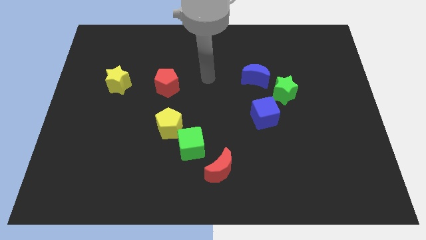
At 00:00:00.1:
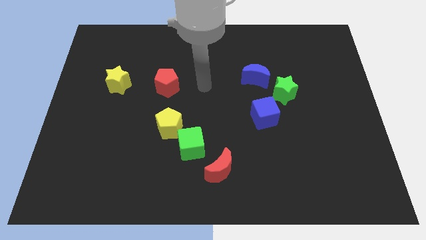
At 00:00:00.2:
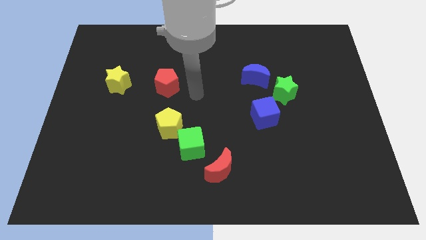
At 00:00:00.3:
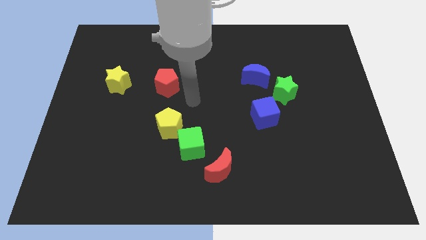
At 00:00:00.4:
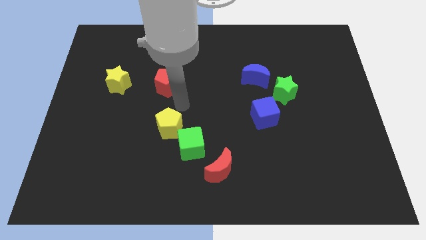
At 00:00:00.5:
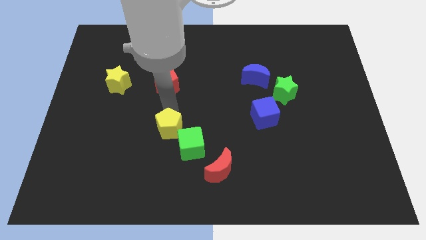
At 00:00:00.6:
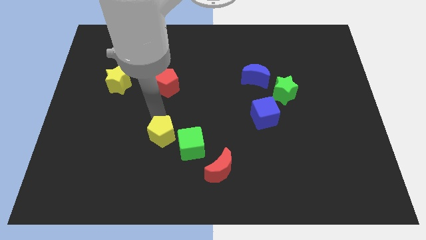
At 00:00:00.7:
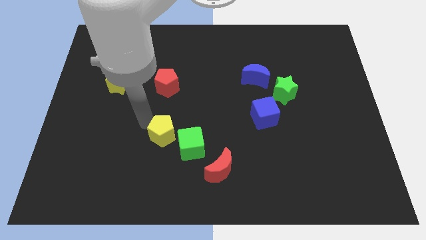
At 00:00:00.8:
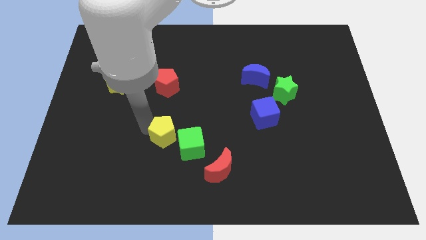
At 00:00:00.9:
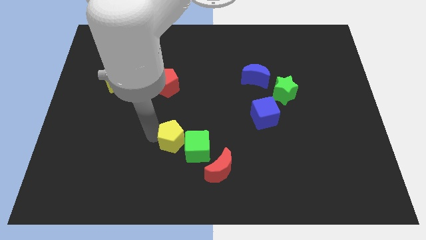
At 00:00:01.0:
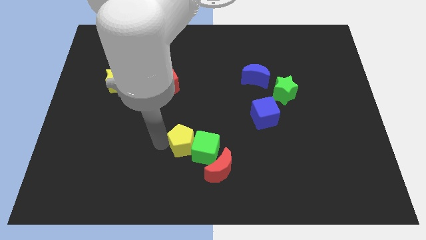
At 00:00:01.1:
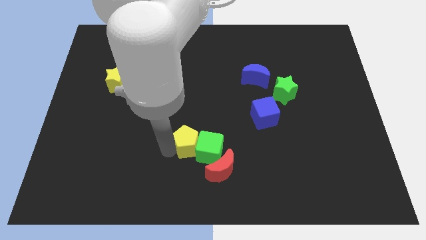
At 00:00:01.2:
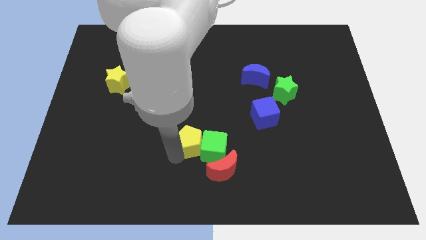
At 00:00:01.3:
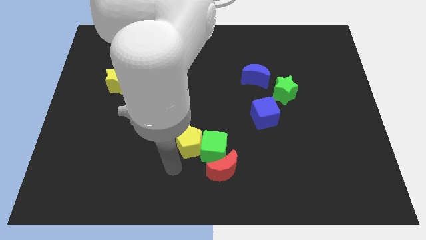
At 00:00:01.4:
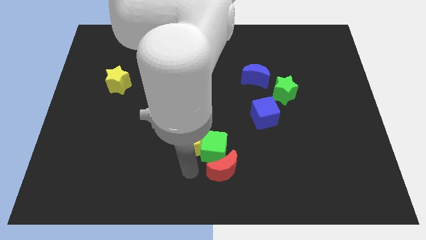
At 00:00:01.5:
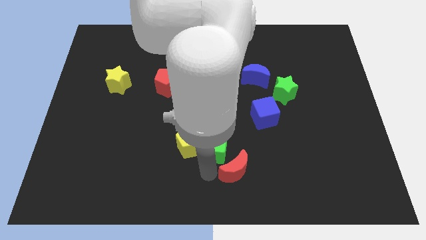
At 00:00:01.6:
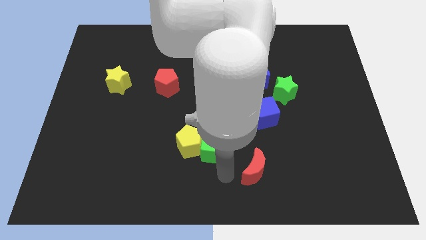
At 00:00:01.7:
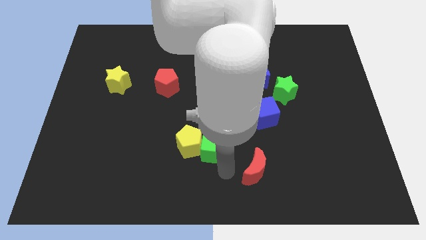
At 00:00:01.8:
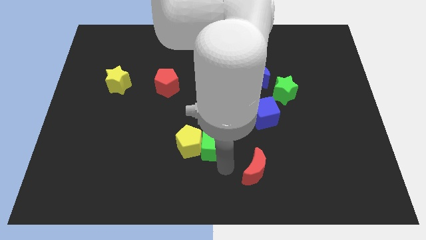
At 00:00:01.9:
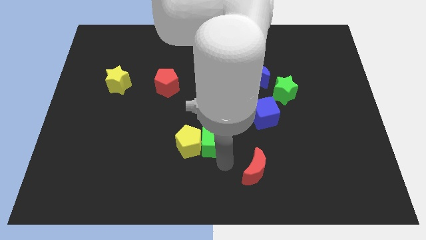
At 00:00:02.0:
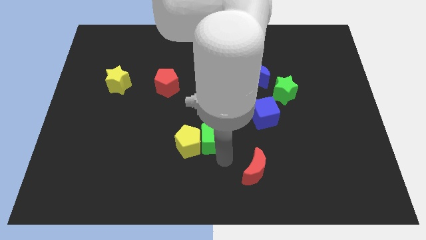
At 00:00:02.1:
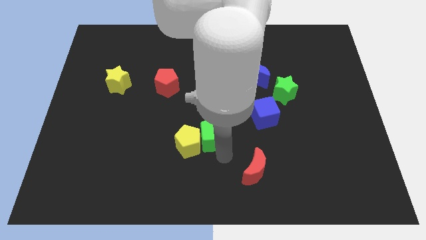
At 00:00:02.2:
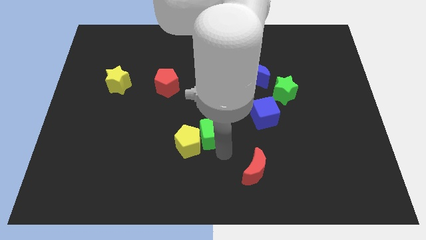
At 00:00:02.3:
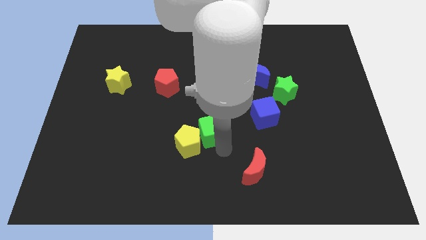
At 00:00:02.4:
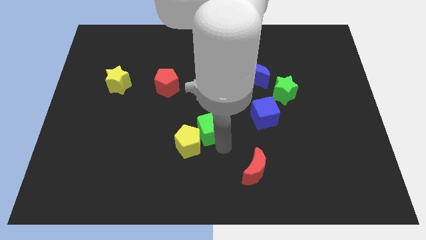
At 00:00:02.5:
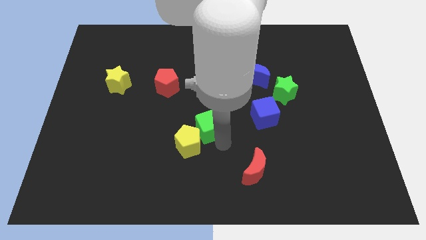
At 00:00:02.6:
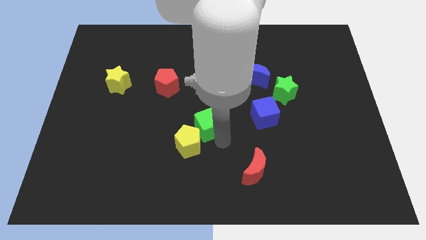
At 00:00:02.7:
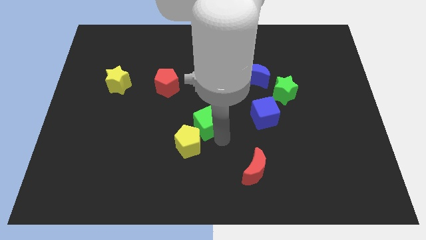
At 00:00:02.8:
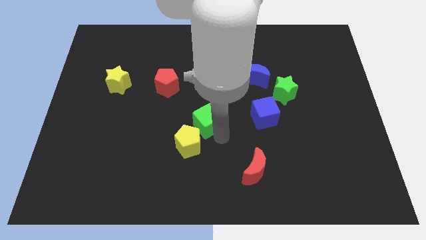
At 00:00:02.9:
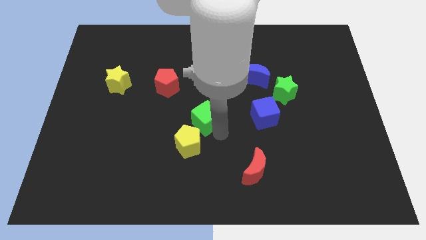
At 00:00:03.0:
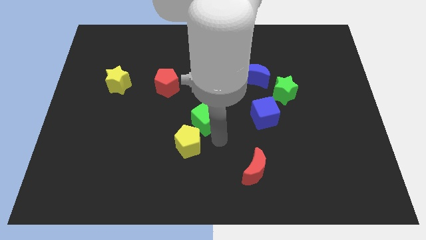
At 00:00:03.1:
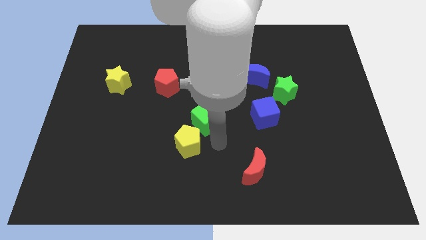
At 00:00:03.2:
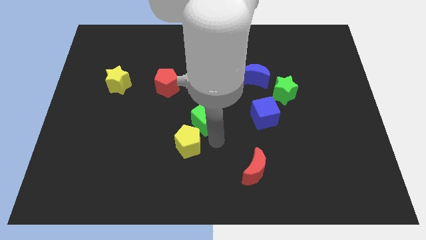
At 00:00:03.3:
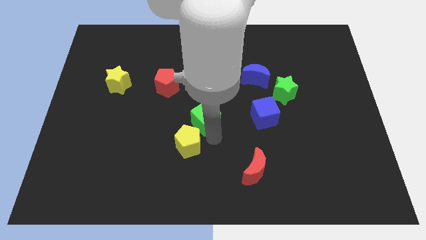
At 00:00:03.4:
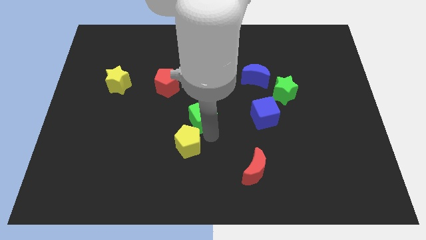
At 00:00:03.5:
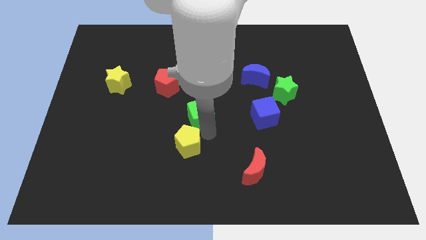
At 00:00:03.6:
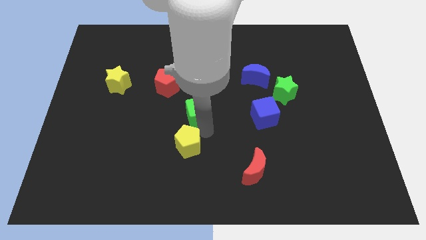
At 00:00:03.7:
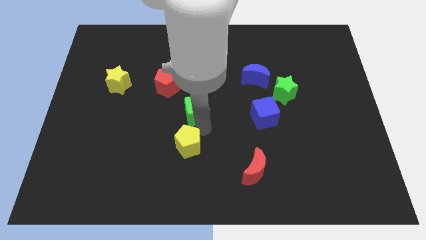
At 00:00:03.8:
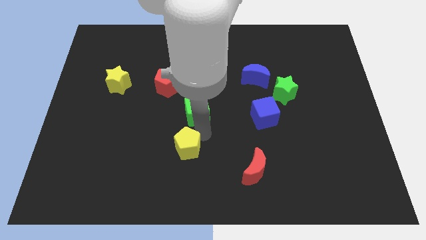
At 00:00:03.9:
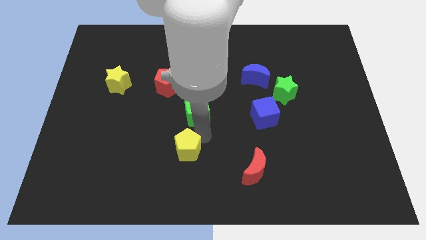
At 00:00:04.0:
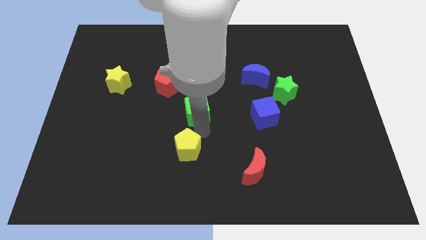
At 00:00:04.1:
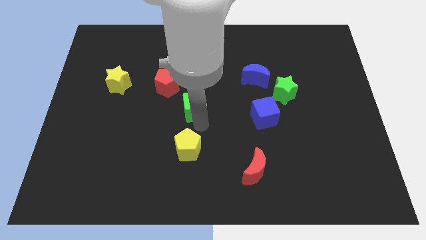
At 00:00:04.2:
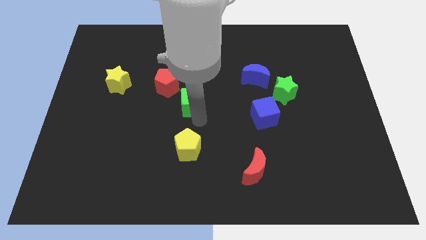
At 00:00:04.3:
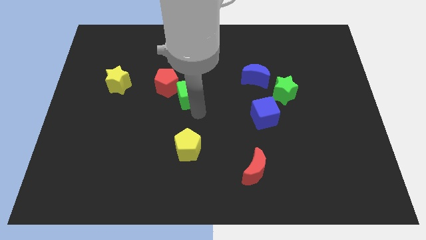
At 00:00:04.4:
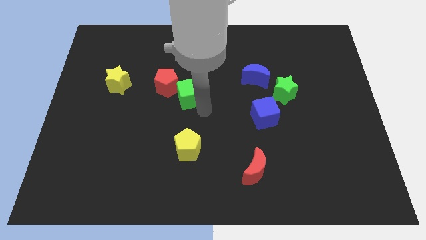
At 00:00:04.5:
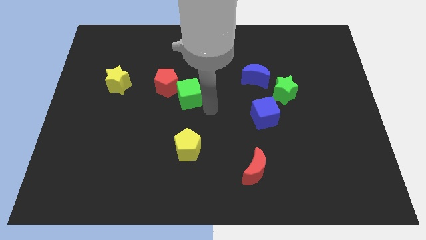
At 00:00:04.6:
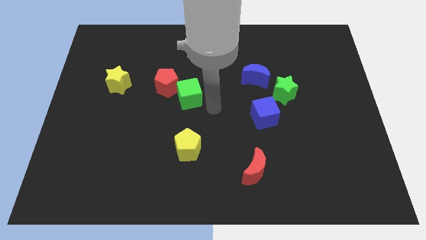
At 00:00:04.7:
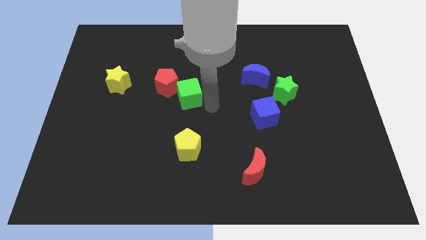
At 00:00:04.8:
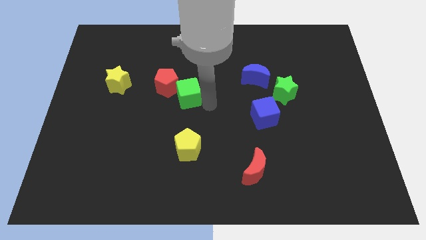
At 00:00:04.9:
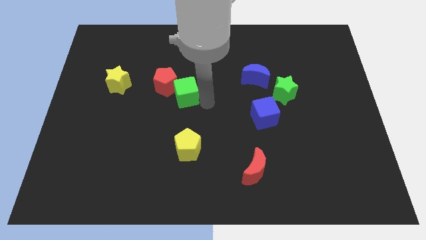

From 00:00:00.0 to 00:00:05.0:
move the green cube next to the red pentagon

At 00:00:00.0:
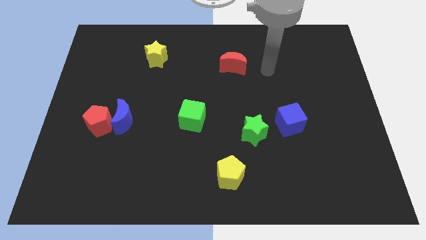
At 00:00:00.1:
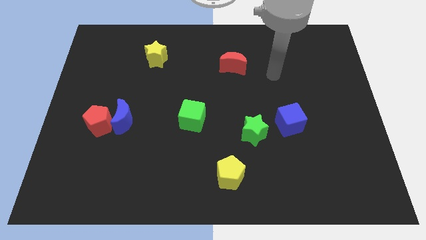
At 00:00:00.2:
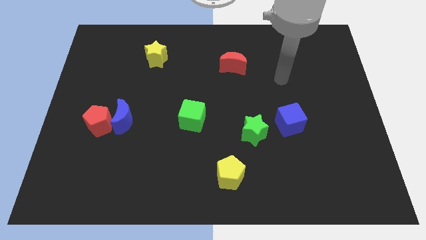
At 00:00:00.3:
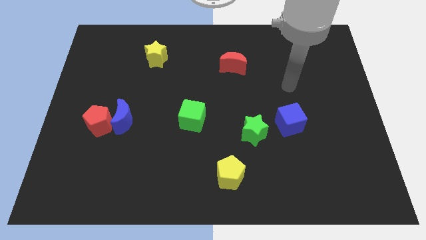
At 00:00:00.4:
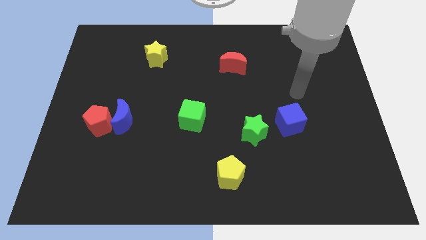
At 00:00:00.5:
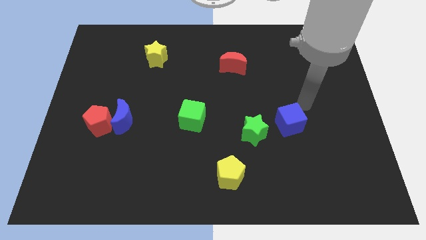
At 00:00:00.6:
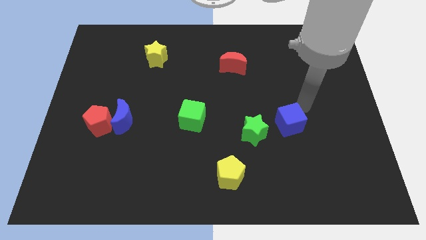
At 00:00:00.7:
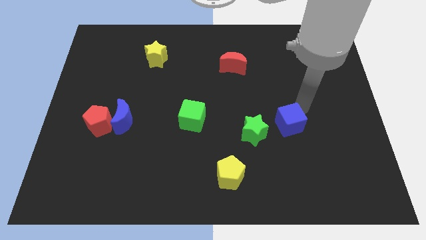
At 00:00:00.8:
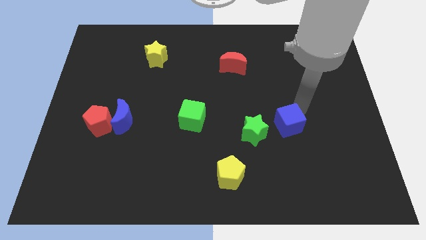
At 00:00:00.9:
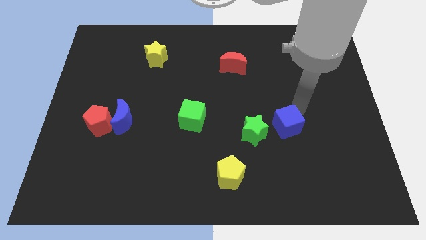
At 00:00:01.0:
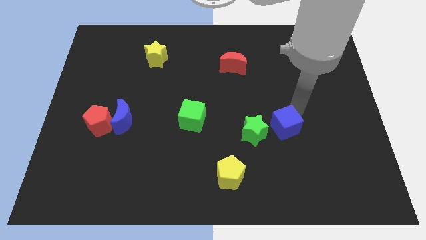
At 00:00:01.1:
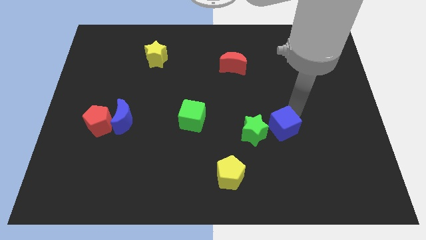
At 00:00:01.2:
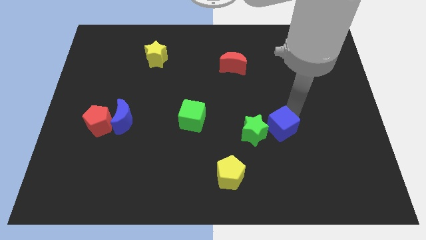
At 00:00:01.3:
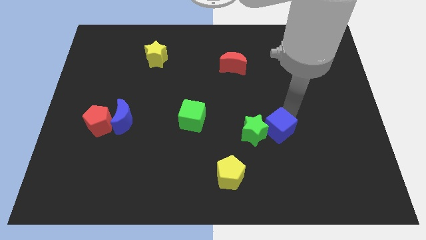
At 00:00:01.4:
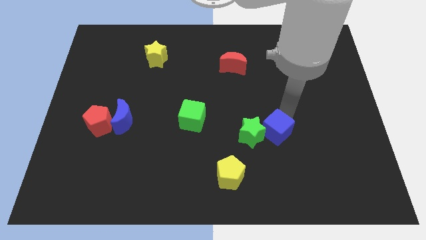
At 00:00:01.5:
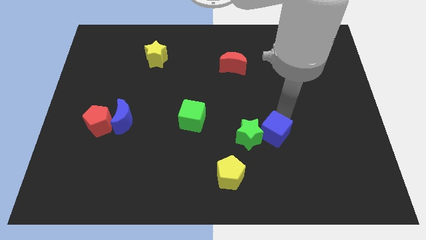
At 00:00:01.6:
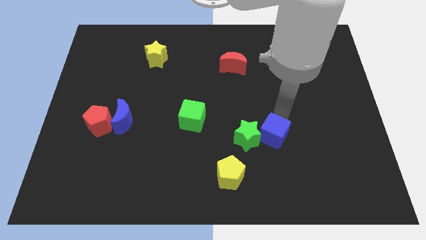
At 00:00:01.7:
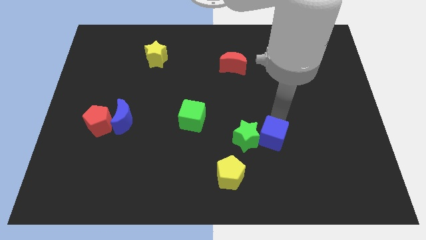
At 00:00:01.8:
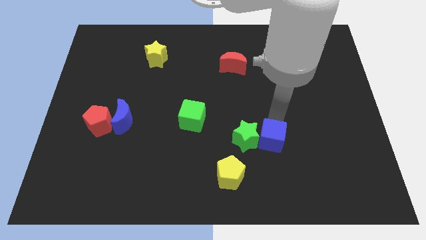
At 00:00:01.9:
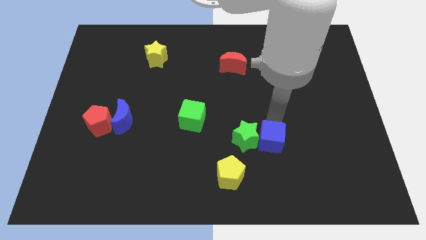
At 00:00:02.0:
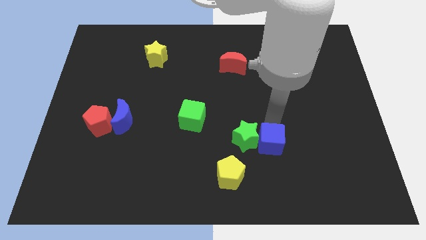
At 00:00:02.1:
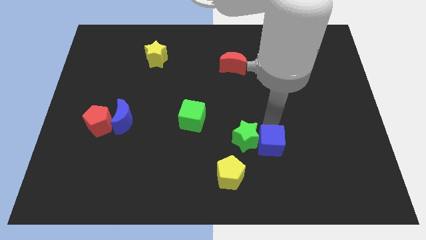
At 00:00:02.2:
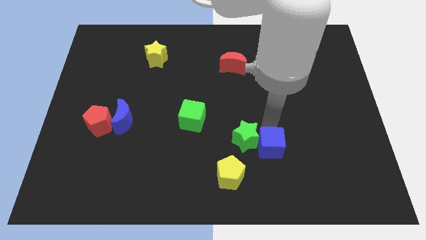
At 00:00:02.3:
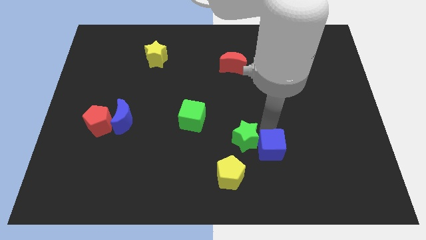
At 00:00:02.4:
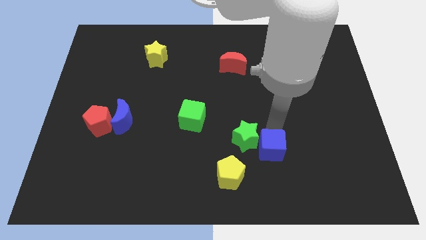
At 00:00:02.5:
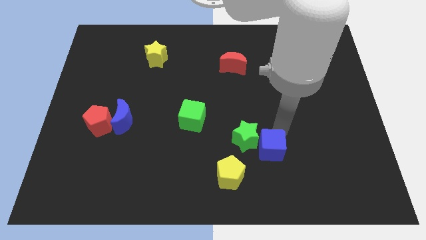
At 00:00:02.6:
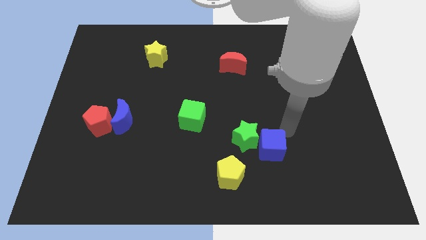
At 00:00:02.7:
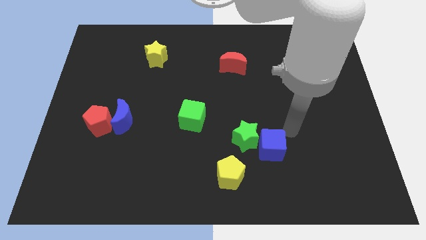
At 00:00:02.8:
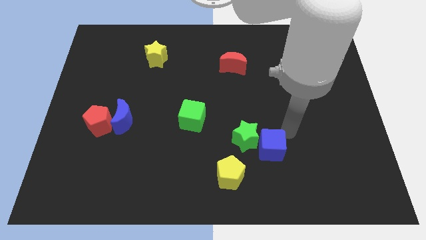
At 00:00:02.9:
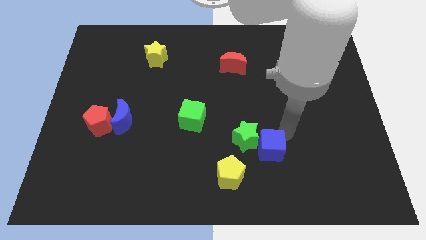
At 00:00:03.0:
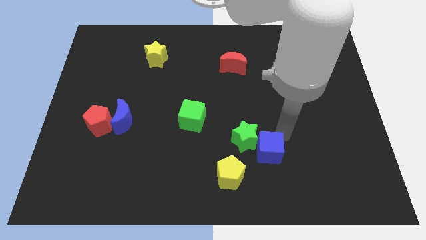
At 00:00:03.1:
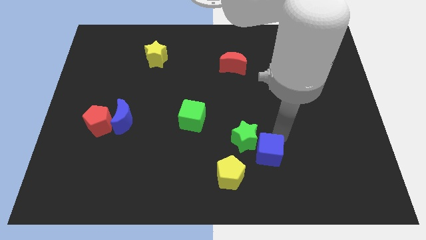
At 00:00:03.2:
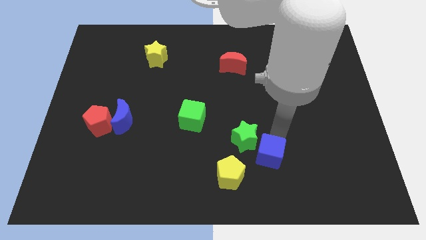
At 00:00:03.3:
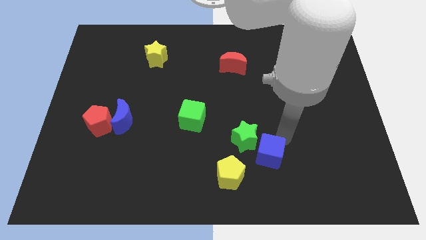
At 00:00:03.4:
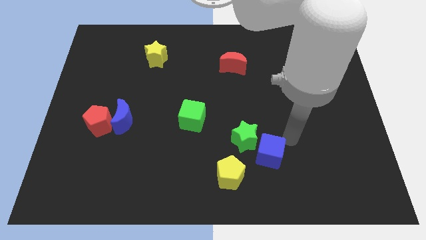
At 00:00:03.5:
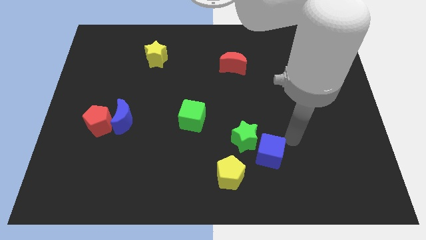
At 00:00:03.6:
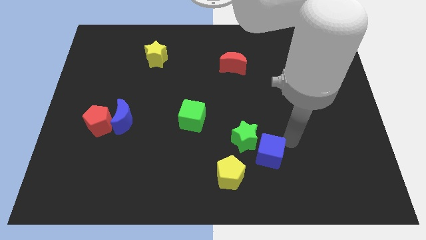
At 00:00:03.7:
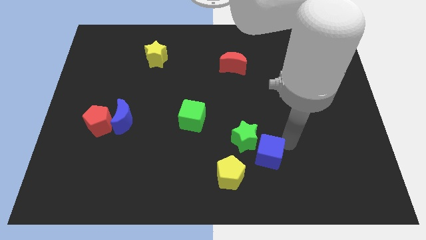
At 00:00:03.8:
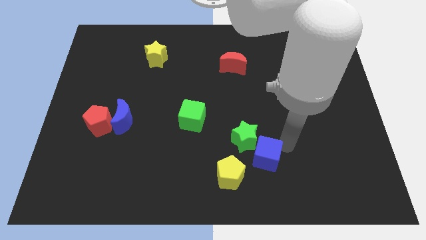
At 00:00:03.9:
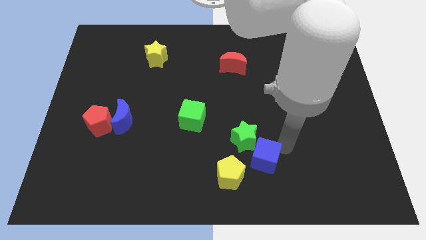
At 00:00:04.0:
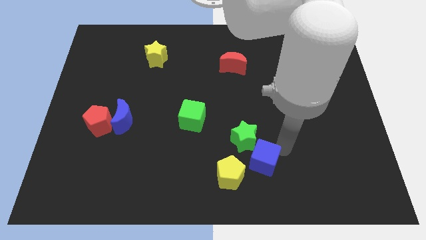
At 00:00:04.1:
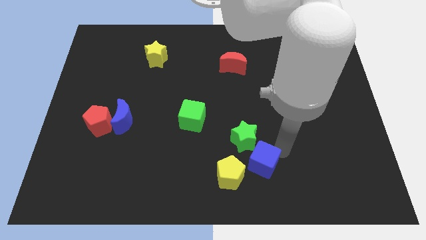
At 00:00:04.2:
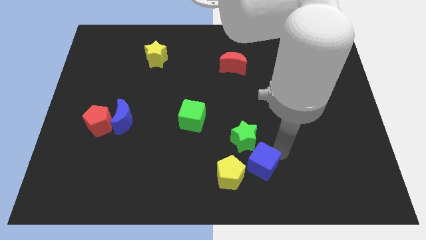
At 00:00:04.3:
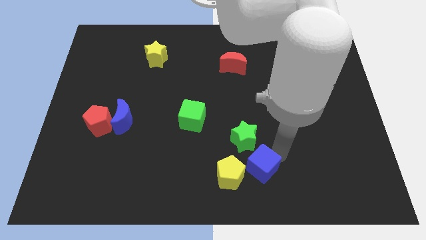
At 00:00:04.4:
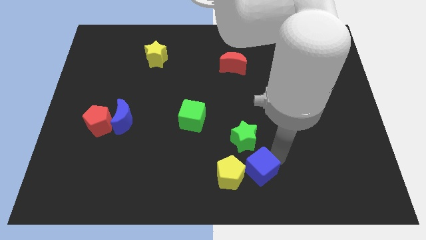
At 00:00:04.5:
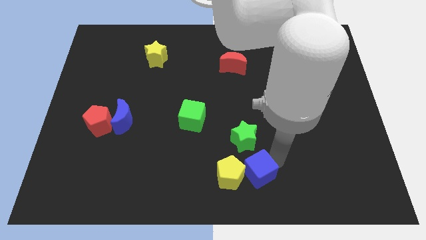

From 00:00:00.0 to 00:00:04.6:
move the blue cube close to the yellow pentagon
